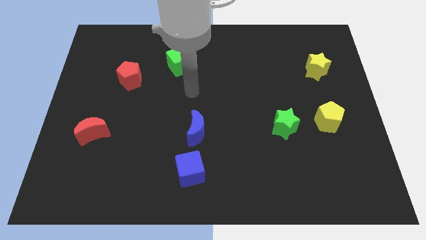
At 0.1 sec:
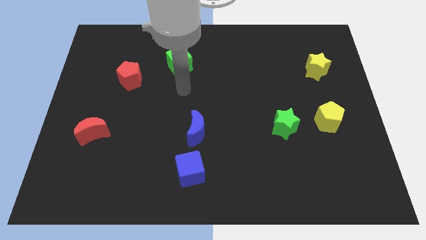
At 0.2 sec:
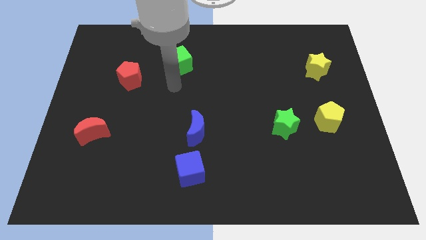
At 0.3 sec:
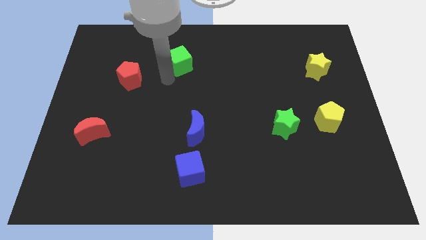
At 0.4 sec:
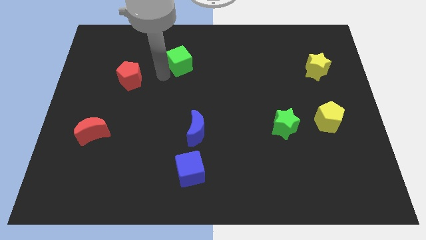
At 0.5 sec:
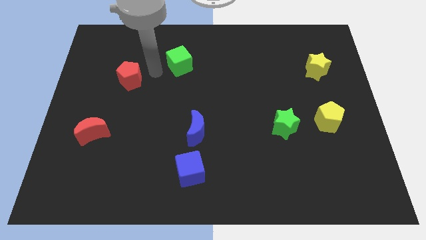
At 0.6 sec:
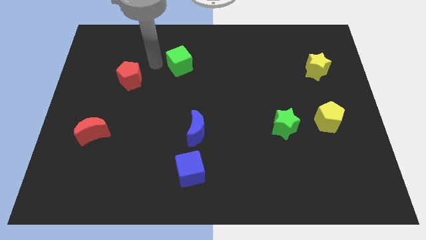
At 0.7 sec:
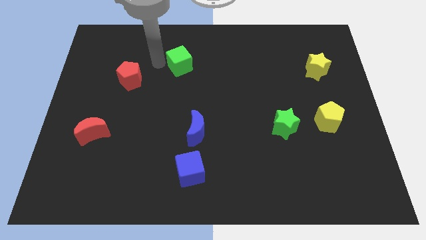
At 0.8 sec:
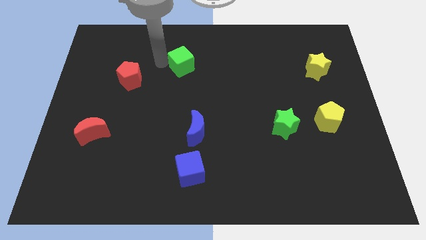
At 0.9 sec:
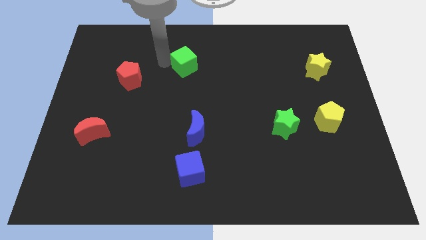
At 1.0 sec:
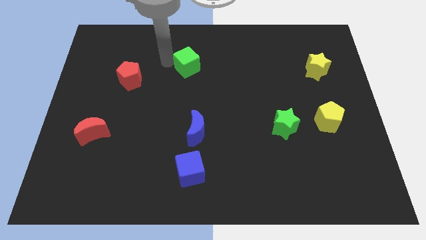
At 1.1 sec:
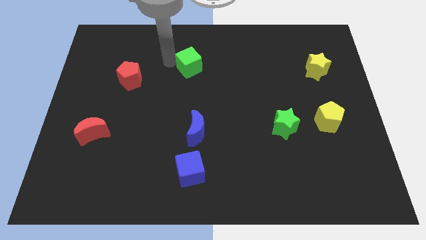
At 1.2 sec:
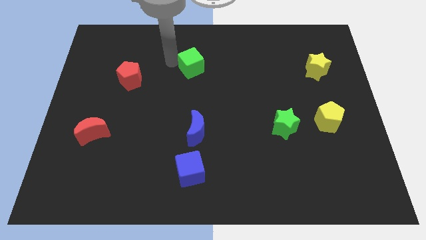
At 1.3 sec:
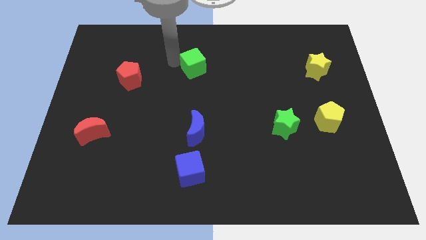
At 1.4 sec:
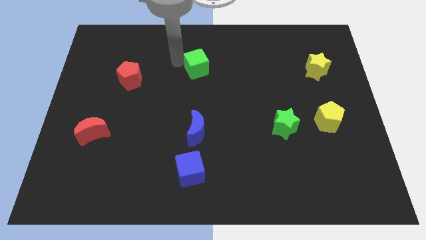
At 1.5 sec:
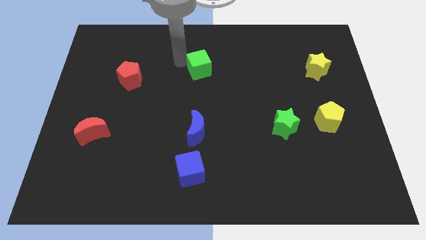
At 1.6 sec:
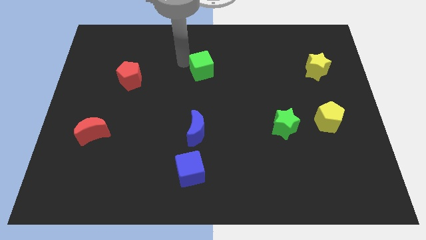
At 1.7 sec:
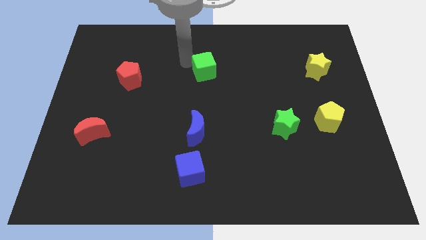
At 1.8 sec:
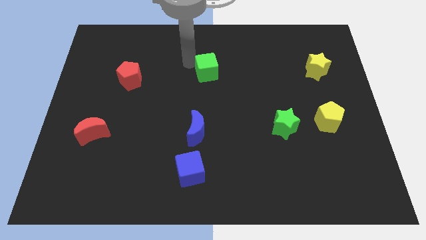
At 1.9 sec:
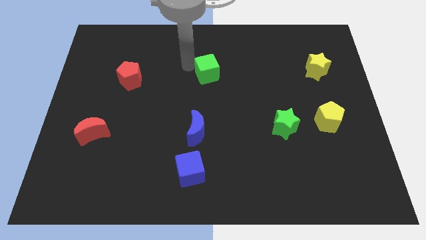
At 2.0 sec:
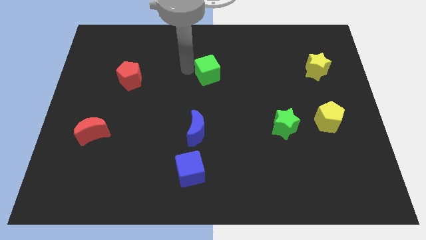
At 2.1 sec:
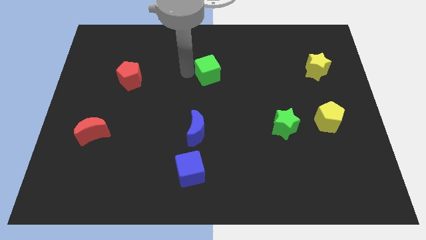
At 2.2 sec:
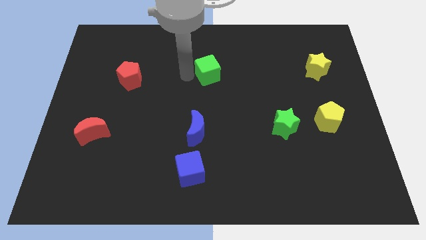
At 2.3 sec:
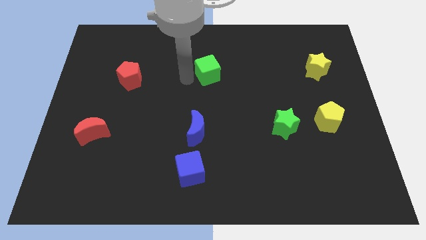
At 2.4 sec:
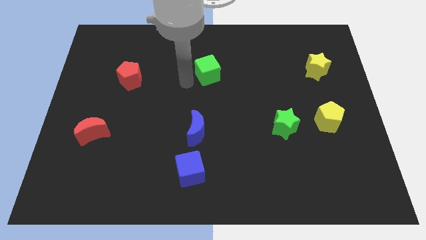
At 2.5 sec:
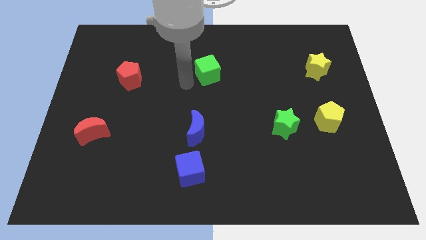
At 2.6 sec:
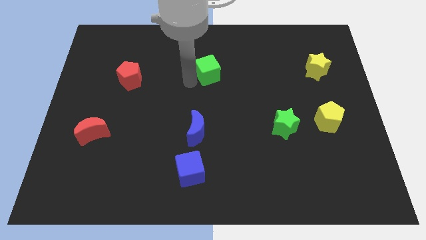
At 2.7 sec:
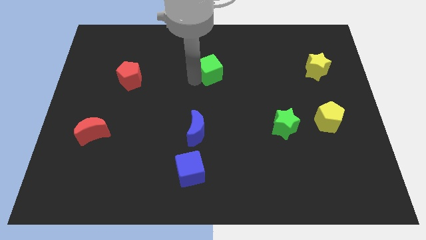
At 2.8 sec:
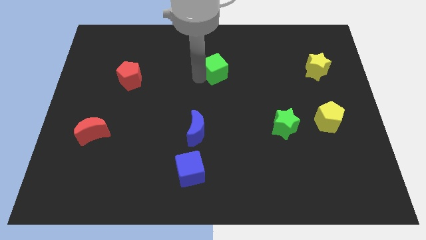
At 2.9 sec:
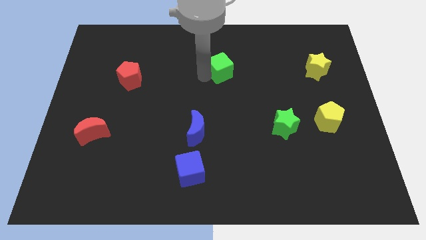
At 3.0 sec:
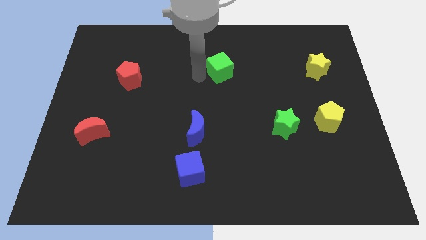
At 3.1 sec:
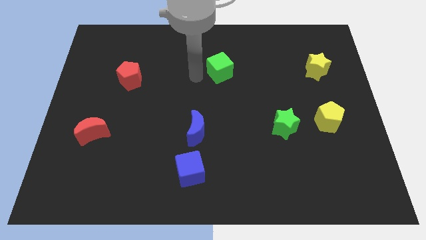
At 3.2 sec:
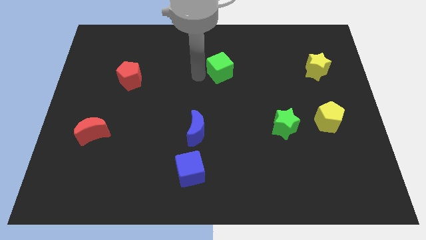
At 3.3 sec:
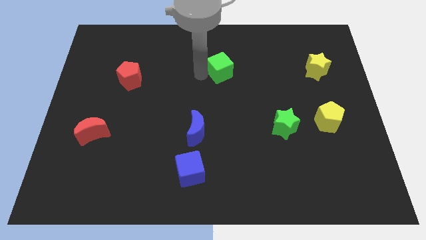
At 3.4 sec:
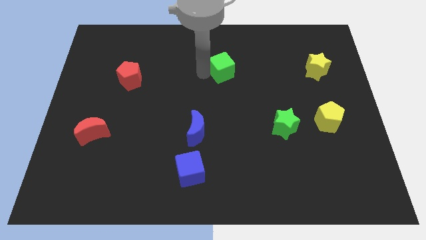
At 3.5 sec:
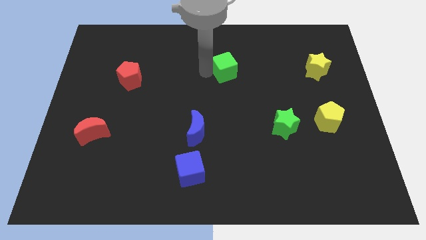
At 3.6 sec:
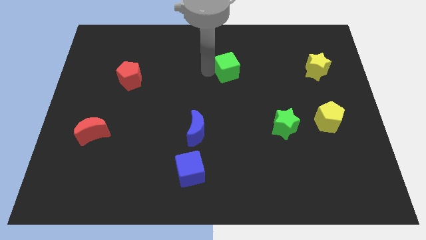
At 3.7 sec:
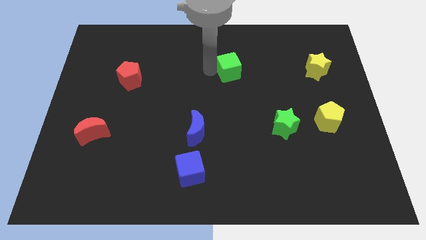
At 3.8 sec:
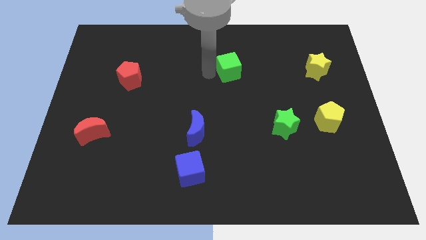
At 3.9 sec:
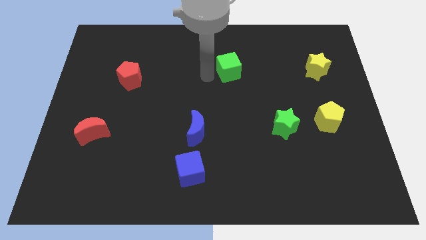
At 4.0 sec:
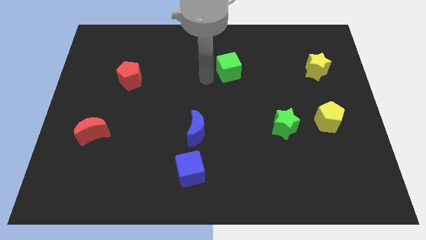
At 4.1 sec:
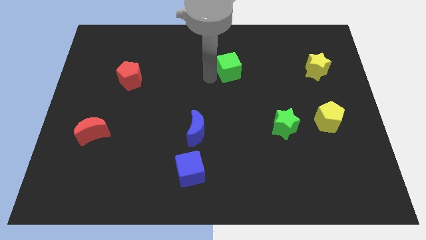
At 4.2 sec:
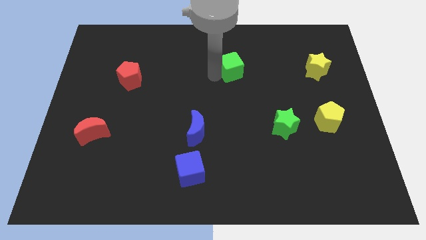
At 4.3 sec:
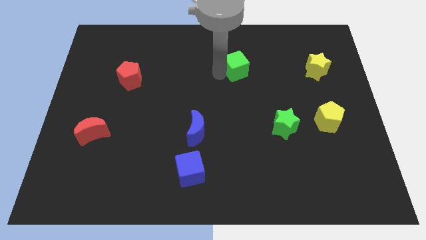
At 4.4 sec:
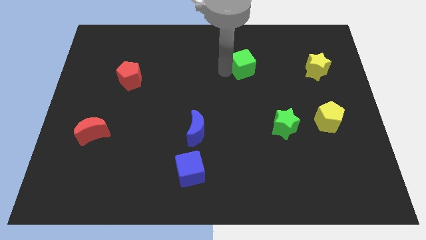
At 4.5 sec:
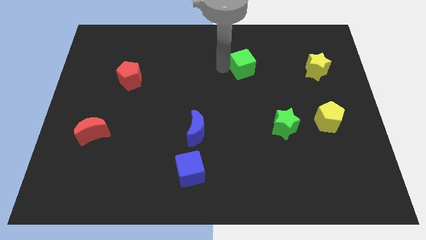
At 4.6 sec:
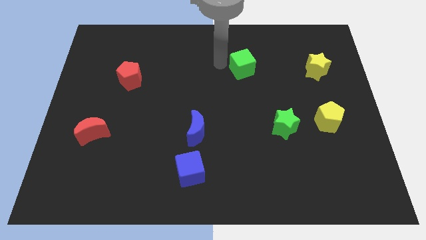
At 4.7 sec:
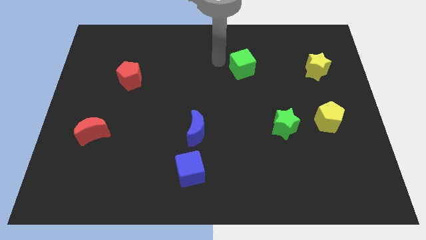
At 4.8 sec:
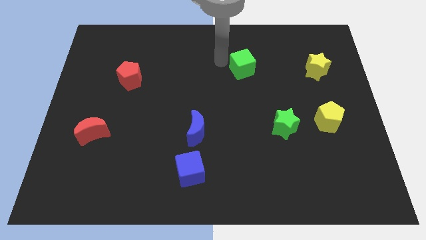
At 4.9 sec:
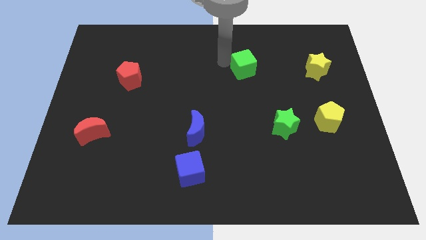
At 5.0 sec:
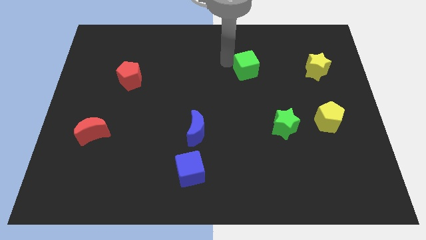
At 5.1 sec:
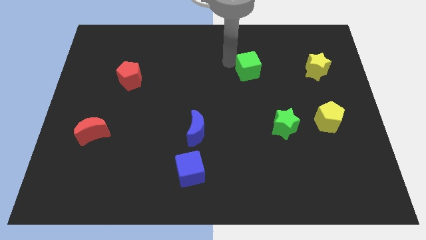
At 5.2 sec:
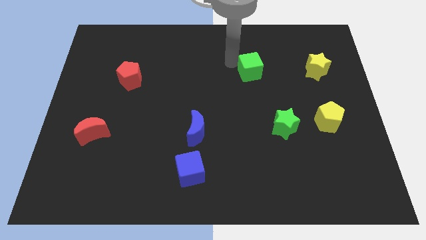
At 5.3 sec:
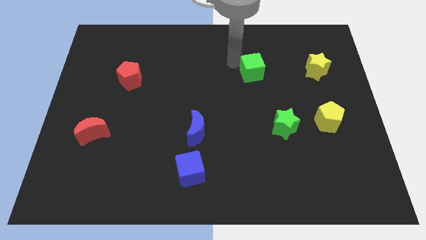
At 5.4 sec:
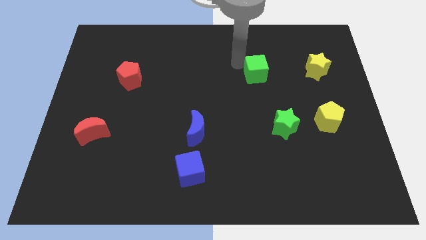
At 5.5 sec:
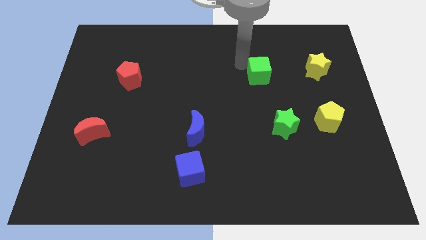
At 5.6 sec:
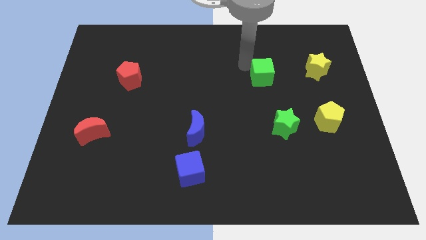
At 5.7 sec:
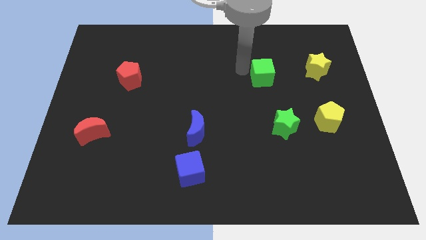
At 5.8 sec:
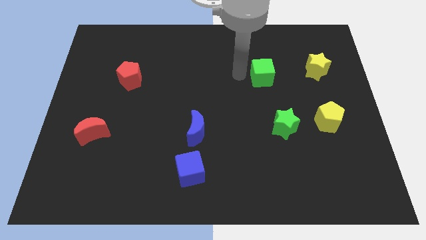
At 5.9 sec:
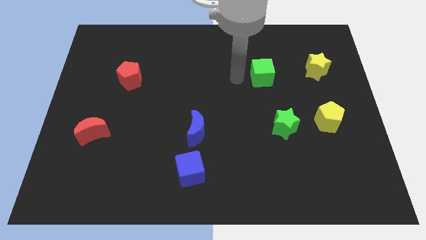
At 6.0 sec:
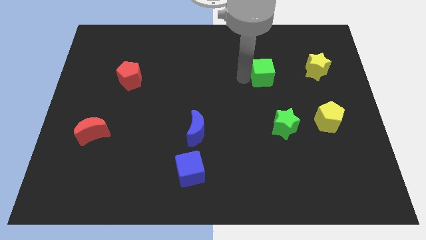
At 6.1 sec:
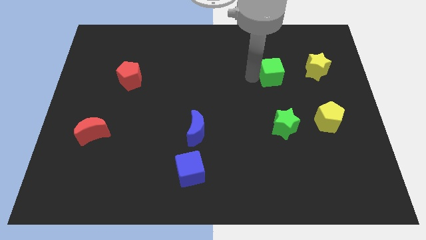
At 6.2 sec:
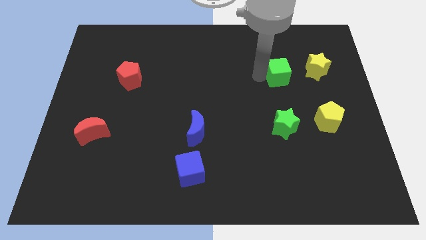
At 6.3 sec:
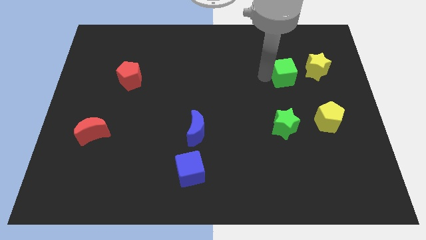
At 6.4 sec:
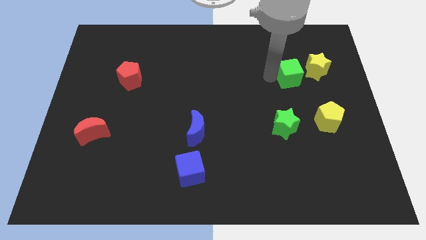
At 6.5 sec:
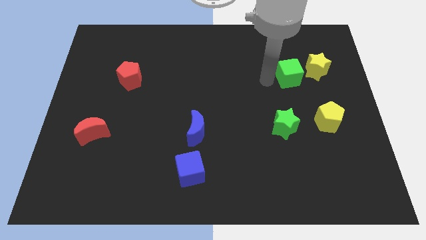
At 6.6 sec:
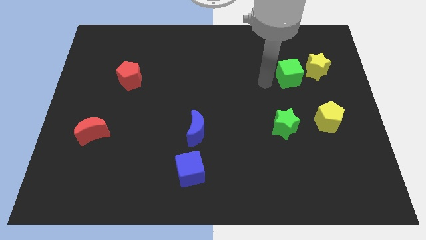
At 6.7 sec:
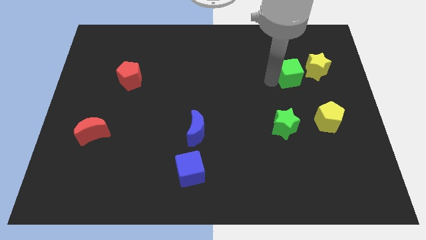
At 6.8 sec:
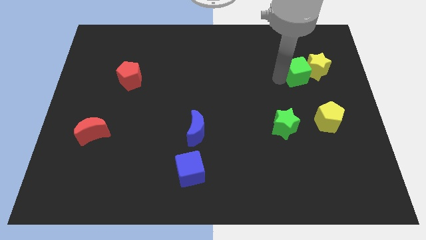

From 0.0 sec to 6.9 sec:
slide the green cube next to the yellow star

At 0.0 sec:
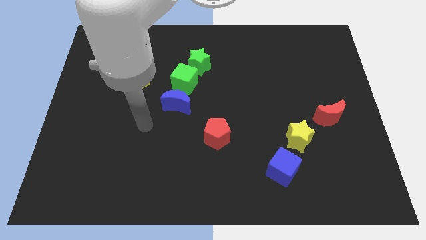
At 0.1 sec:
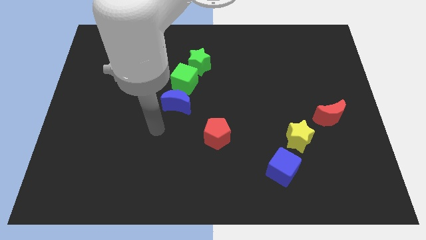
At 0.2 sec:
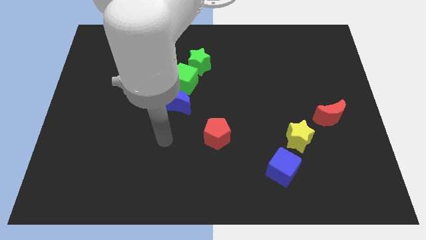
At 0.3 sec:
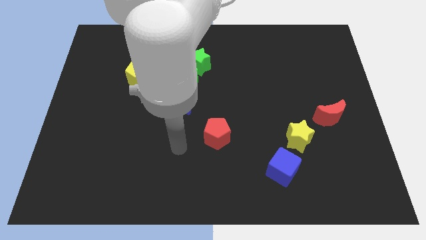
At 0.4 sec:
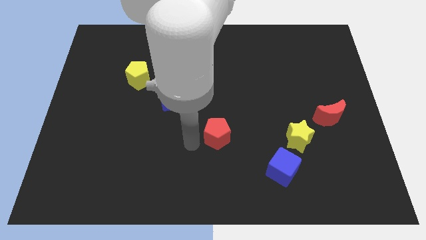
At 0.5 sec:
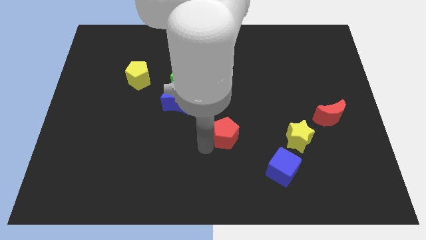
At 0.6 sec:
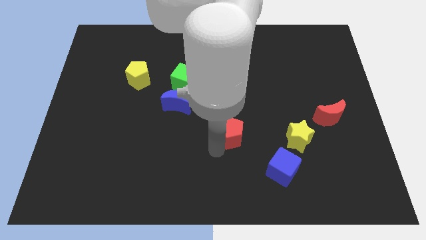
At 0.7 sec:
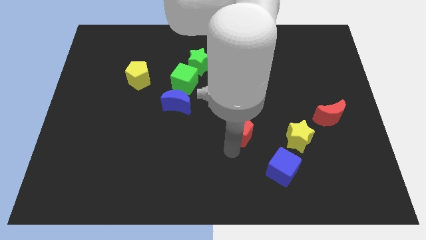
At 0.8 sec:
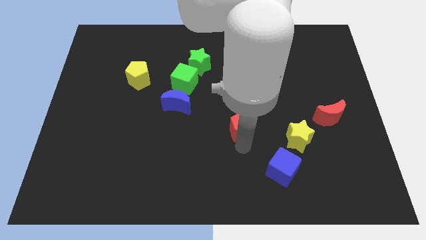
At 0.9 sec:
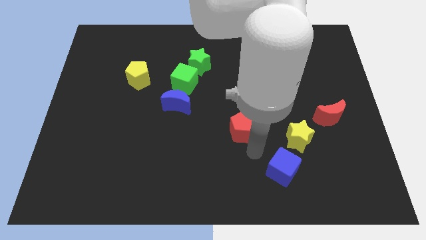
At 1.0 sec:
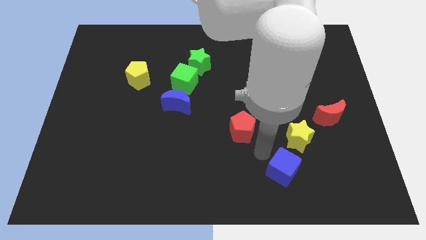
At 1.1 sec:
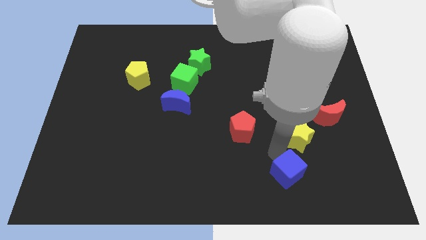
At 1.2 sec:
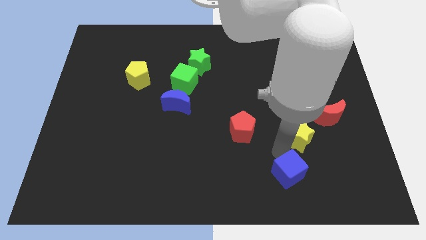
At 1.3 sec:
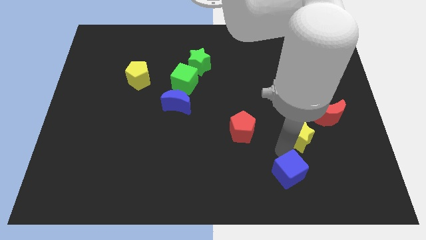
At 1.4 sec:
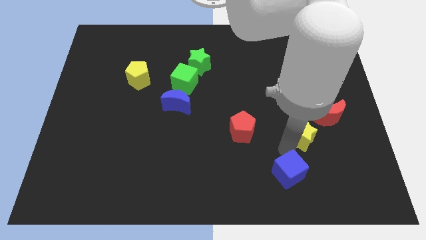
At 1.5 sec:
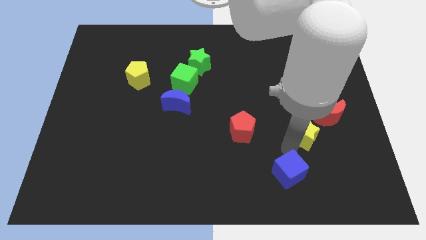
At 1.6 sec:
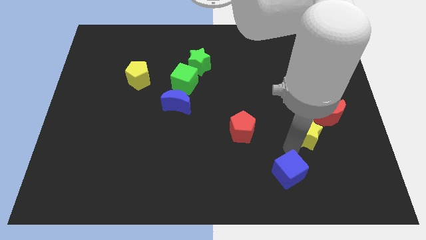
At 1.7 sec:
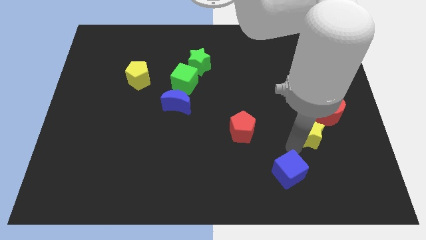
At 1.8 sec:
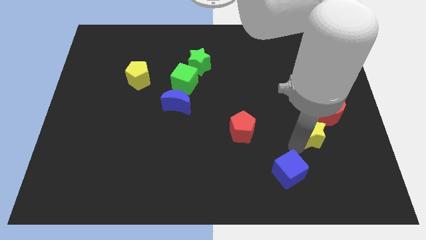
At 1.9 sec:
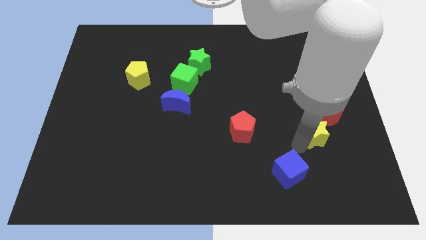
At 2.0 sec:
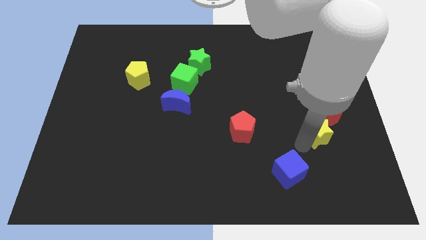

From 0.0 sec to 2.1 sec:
put the yellow star close to the red moon
